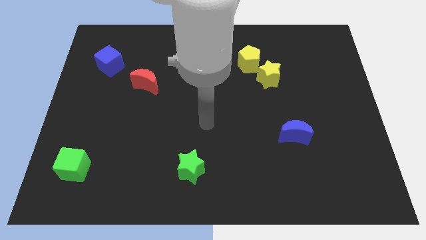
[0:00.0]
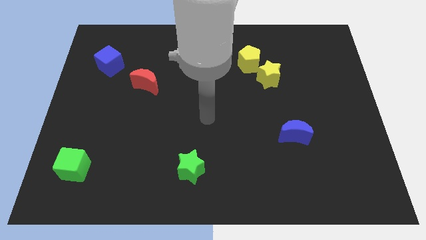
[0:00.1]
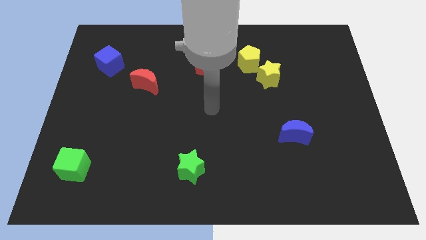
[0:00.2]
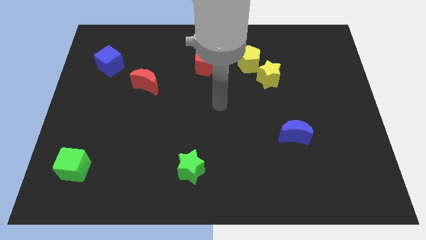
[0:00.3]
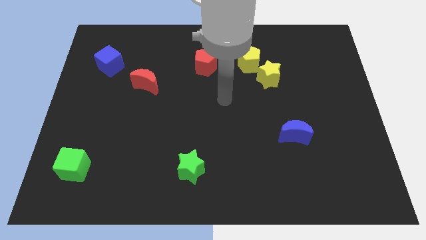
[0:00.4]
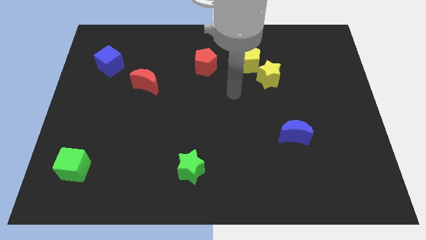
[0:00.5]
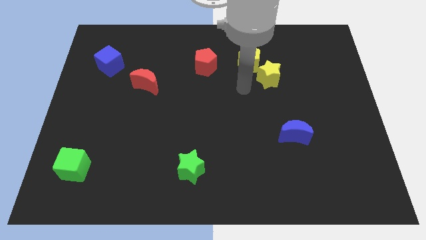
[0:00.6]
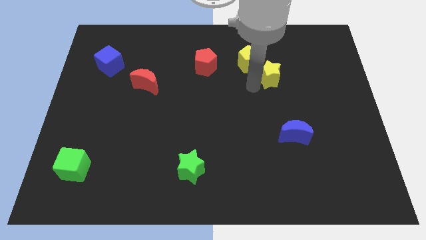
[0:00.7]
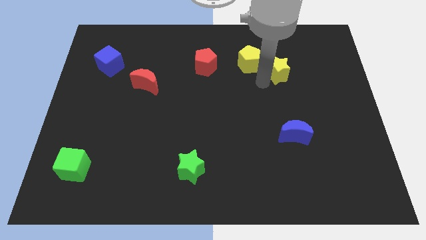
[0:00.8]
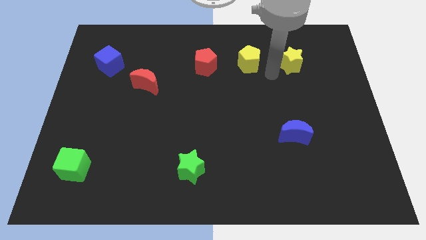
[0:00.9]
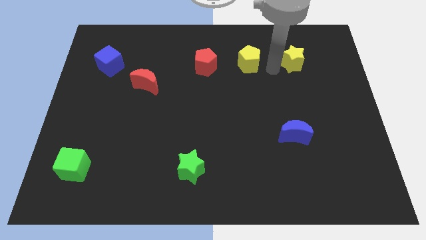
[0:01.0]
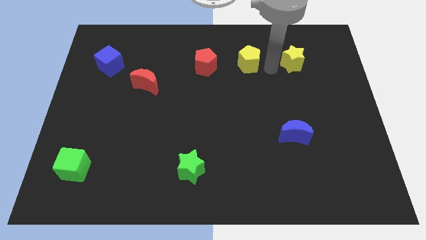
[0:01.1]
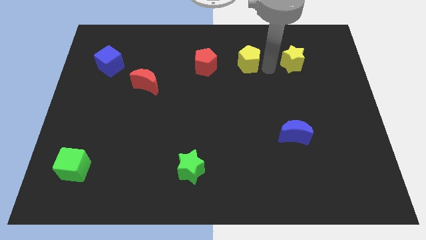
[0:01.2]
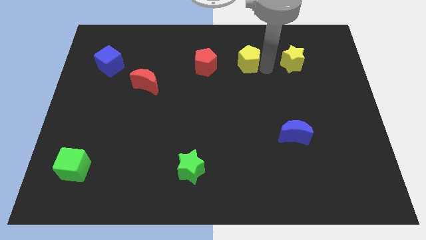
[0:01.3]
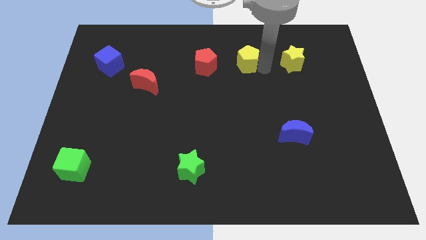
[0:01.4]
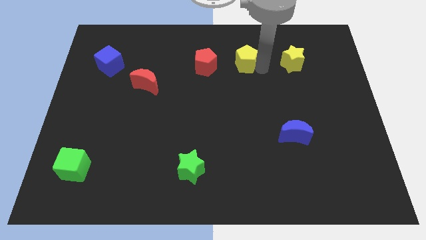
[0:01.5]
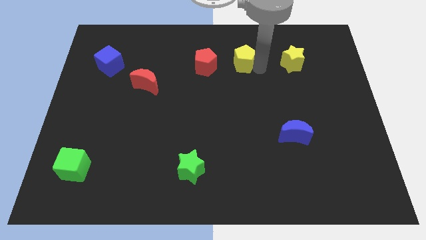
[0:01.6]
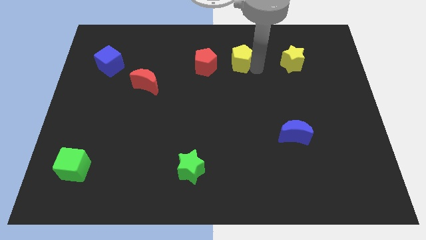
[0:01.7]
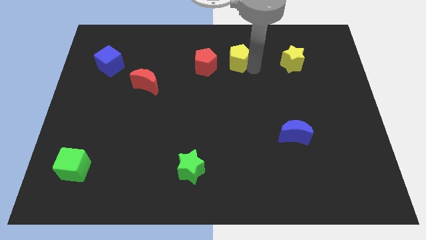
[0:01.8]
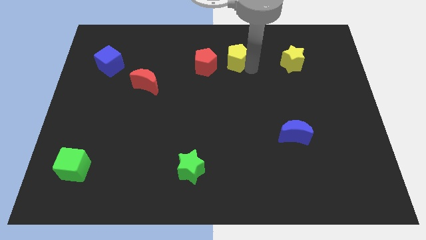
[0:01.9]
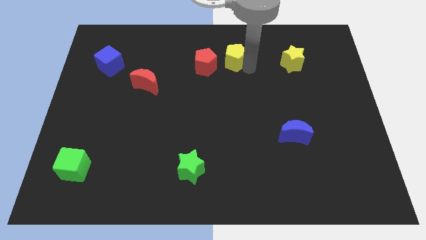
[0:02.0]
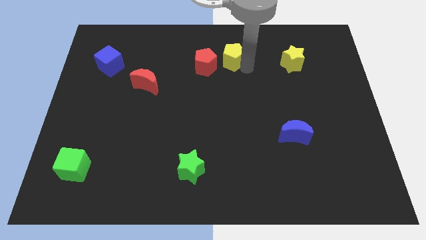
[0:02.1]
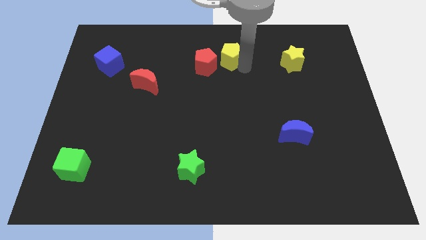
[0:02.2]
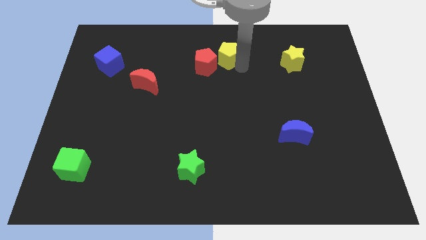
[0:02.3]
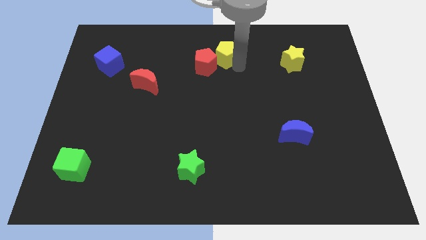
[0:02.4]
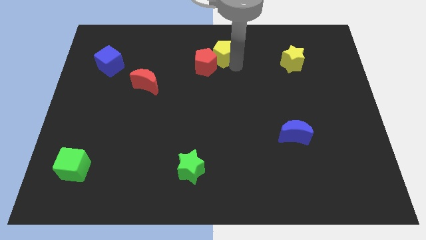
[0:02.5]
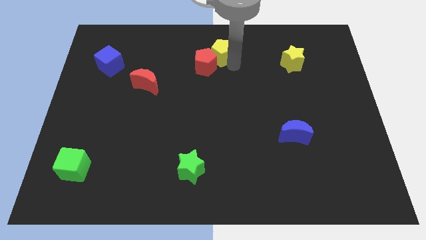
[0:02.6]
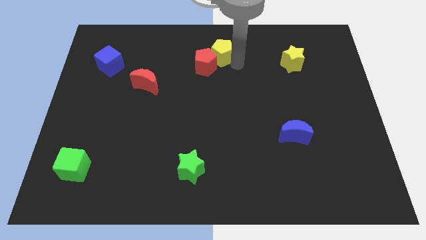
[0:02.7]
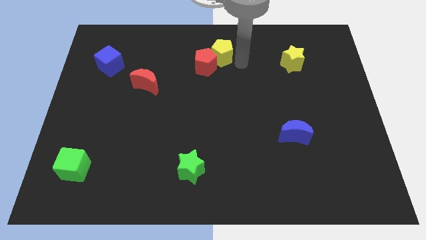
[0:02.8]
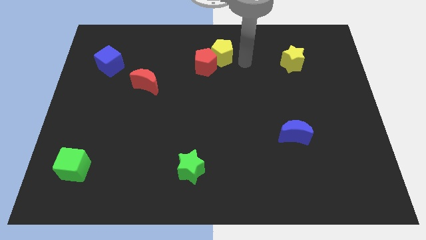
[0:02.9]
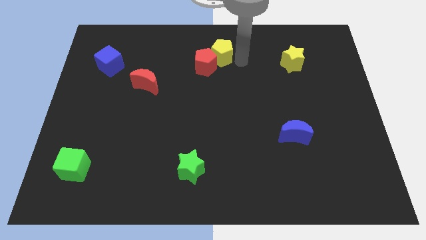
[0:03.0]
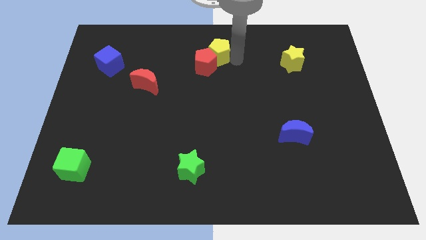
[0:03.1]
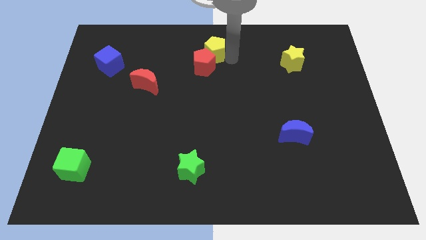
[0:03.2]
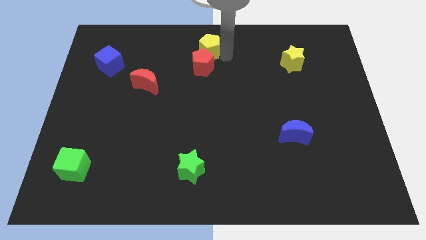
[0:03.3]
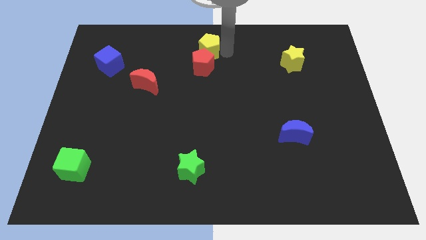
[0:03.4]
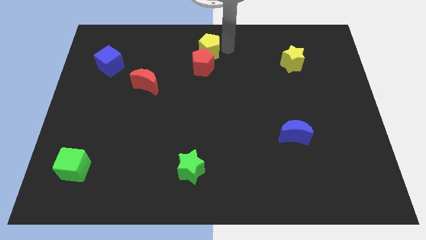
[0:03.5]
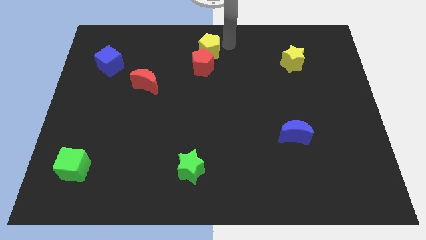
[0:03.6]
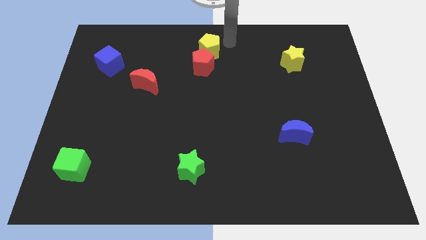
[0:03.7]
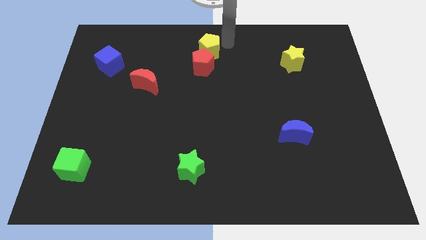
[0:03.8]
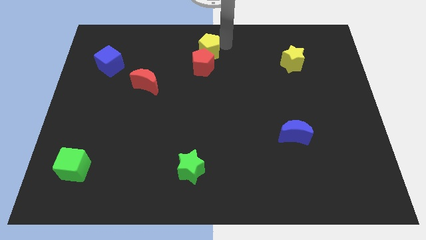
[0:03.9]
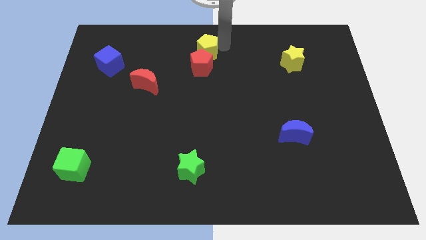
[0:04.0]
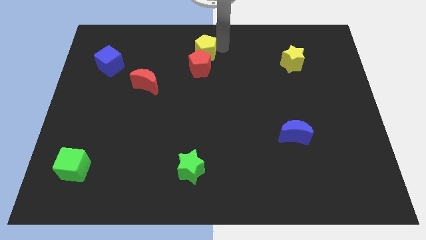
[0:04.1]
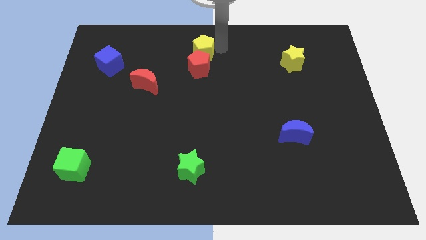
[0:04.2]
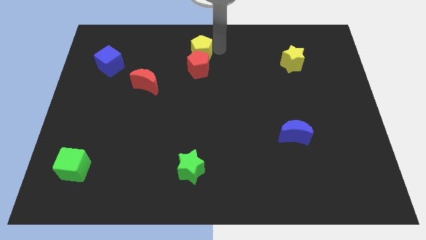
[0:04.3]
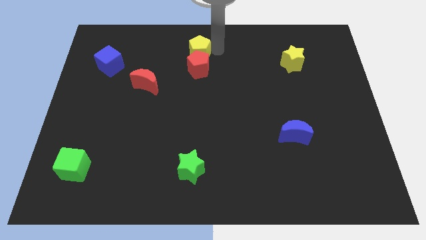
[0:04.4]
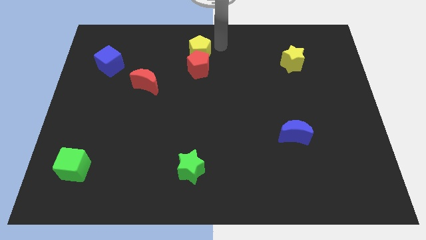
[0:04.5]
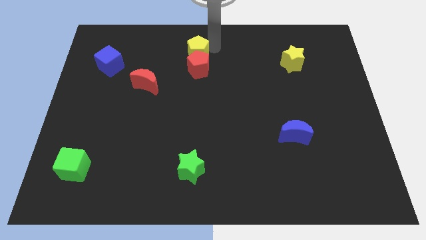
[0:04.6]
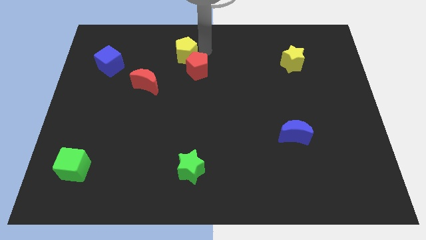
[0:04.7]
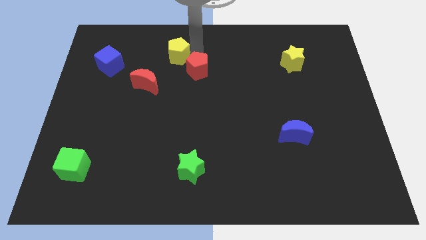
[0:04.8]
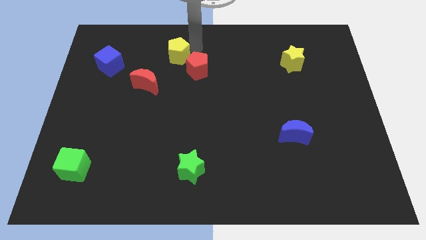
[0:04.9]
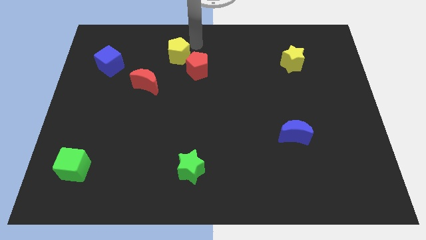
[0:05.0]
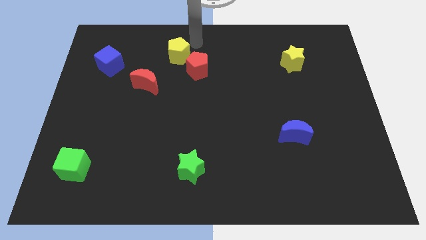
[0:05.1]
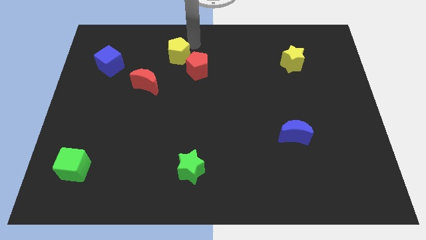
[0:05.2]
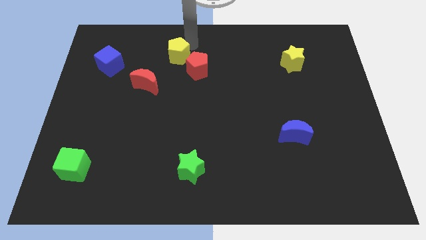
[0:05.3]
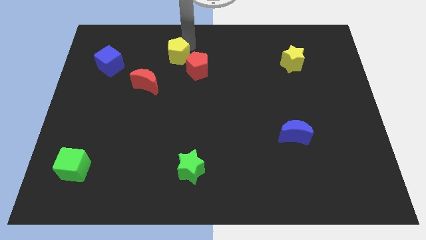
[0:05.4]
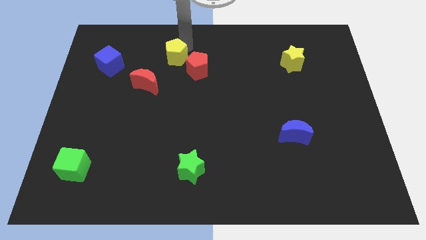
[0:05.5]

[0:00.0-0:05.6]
move the yellow pentagon to the left side of the red pentagon

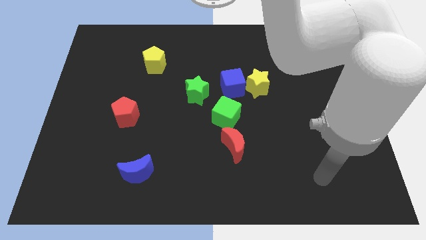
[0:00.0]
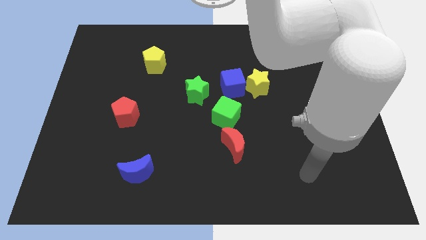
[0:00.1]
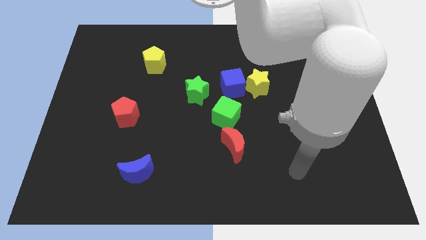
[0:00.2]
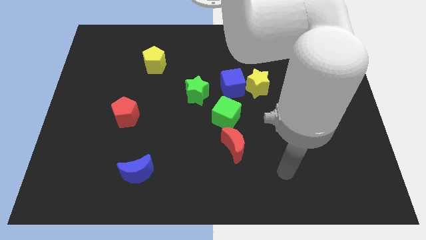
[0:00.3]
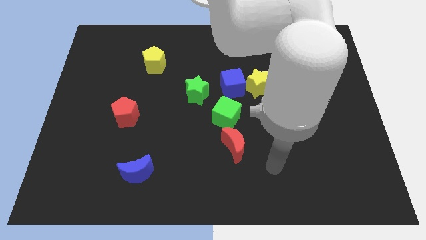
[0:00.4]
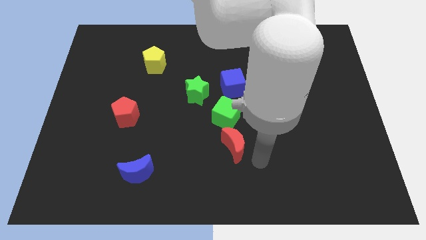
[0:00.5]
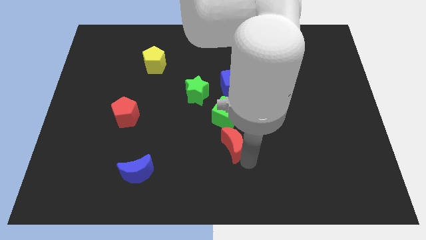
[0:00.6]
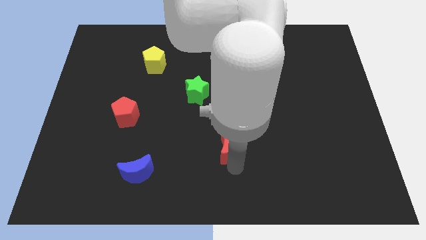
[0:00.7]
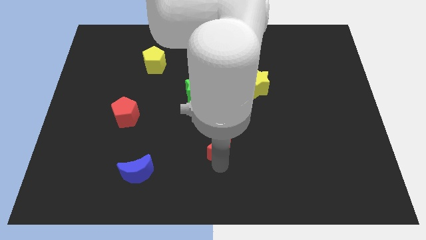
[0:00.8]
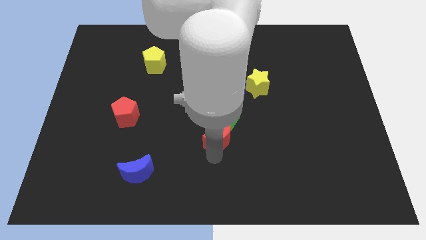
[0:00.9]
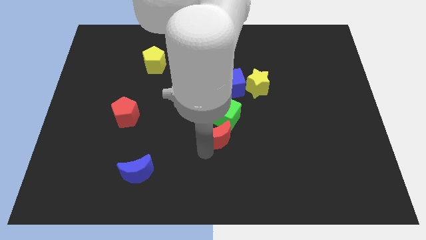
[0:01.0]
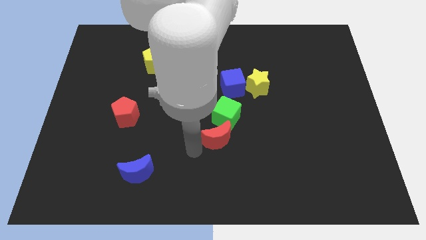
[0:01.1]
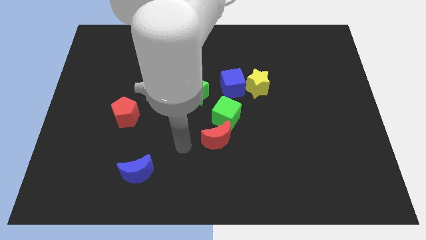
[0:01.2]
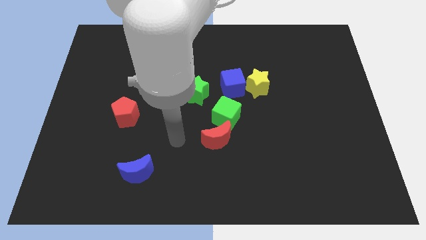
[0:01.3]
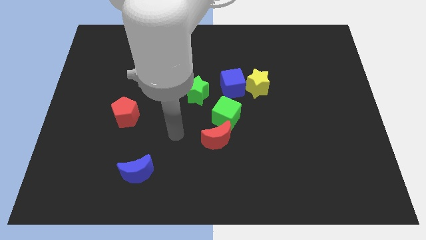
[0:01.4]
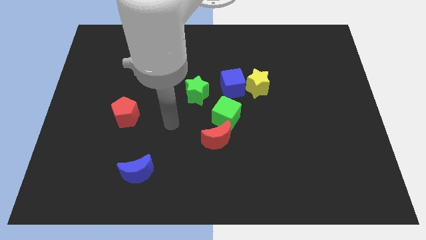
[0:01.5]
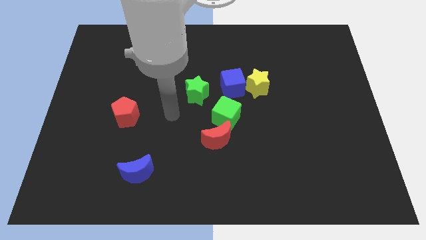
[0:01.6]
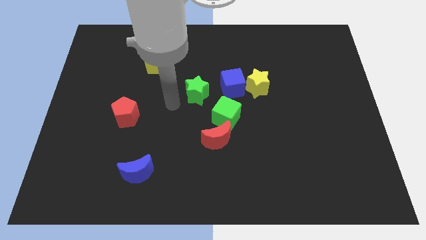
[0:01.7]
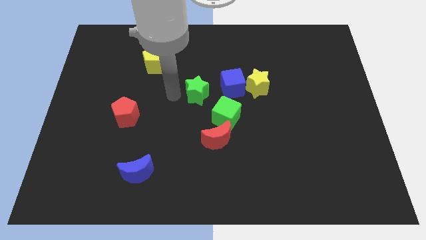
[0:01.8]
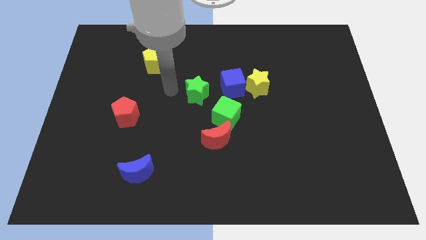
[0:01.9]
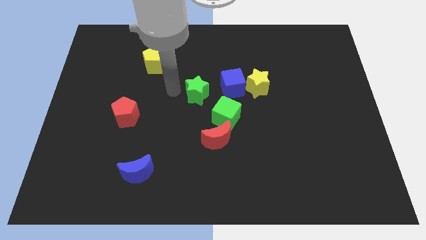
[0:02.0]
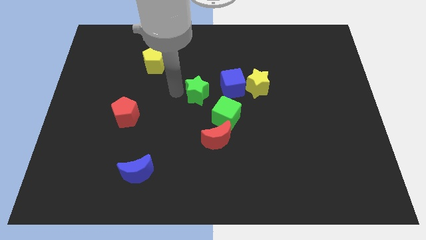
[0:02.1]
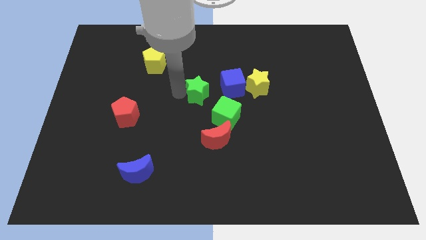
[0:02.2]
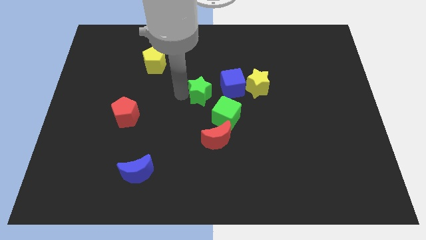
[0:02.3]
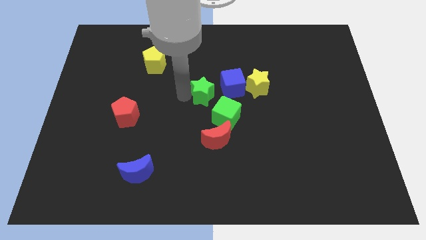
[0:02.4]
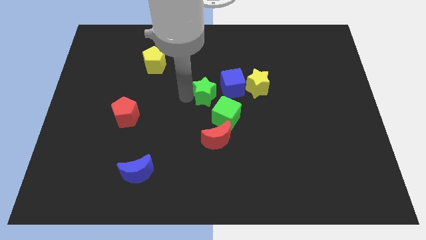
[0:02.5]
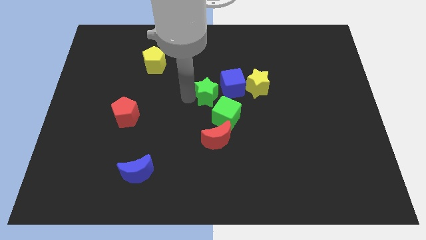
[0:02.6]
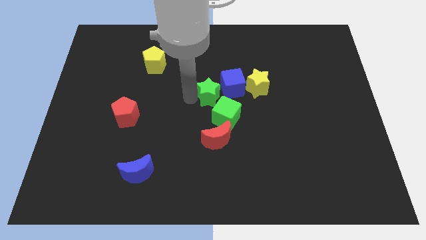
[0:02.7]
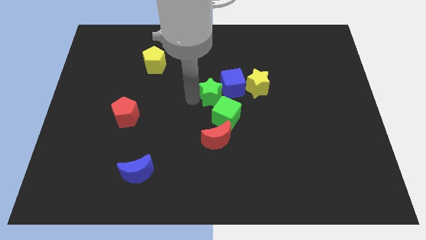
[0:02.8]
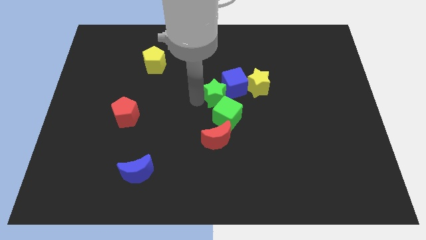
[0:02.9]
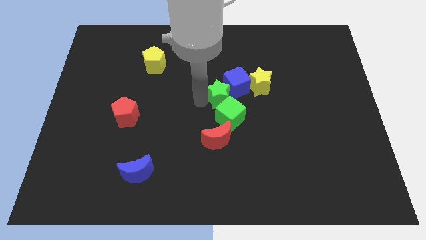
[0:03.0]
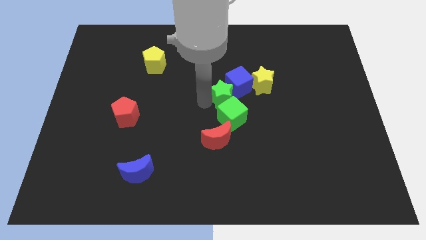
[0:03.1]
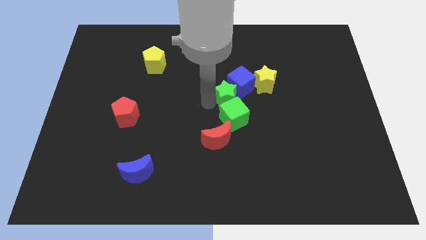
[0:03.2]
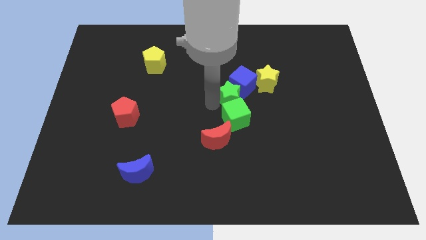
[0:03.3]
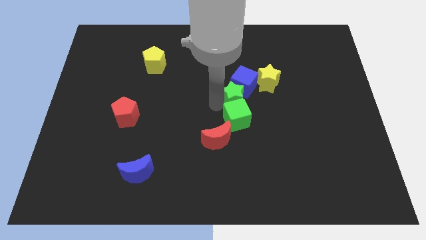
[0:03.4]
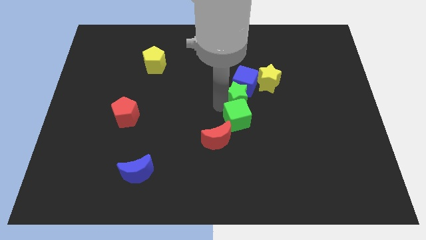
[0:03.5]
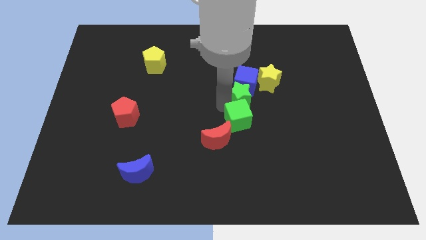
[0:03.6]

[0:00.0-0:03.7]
slide the green star diagonally down and to the right of the blue cube
